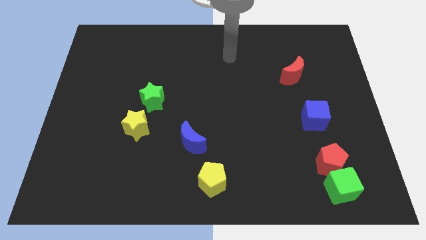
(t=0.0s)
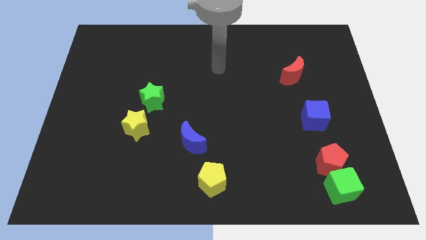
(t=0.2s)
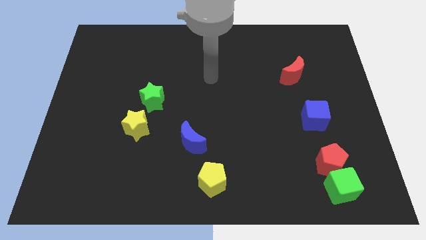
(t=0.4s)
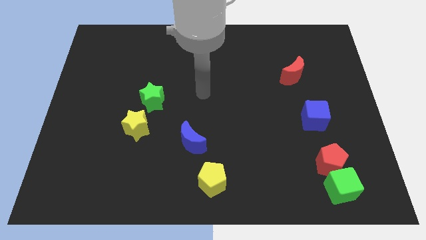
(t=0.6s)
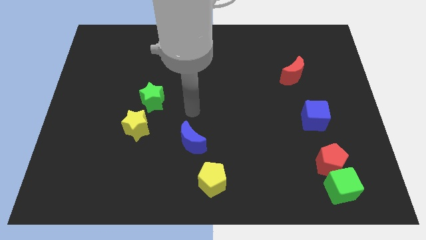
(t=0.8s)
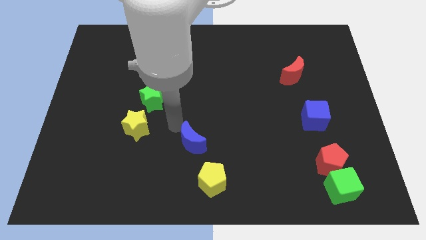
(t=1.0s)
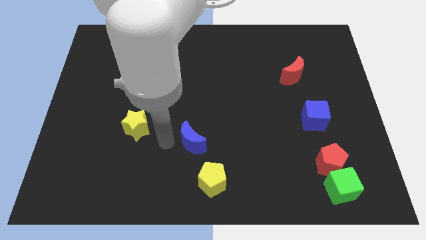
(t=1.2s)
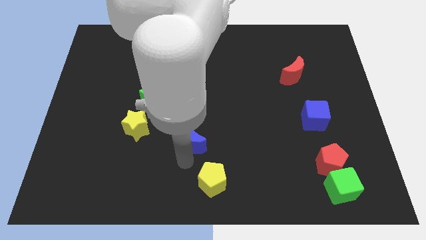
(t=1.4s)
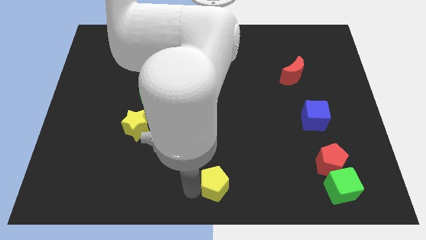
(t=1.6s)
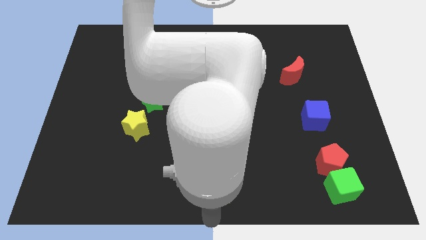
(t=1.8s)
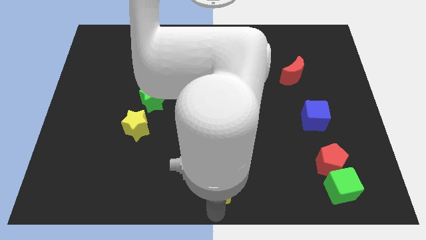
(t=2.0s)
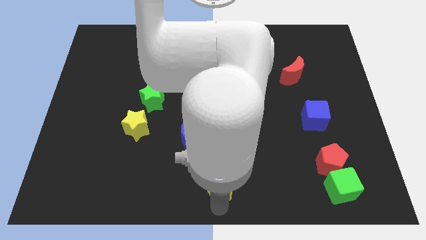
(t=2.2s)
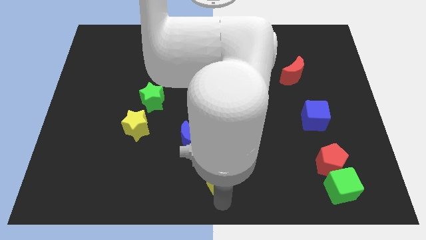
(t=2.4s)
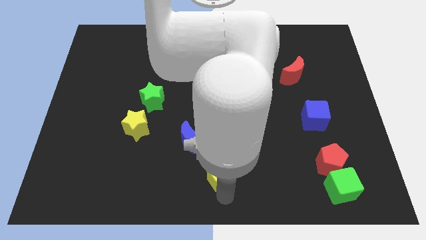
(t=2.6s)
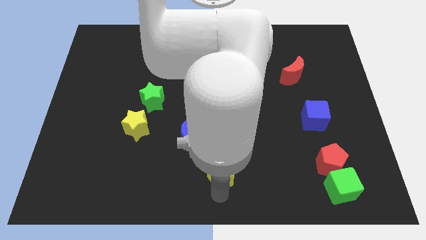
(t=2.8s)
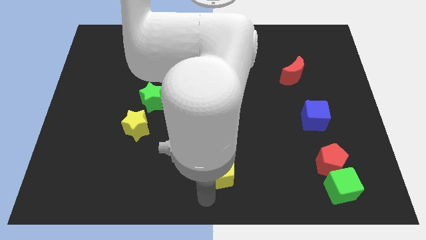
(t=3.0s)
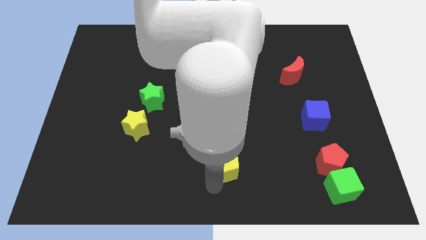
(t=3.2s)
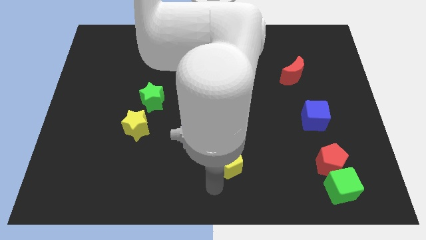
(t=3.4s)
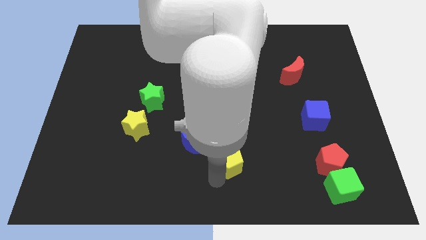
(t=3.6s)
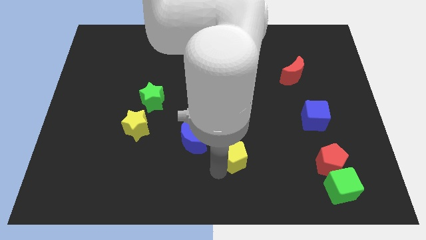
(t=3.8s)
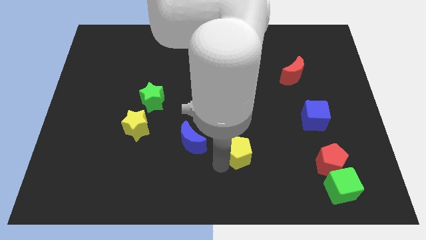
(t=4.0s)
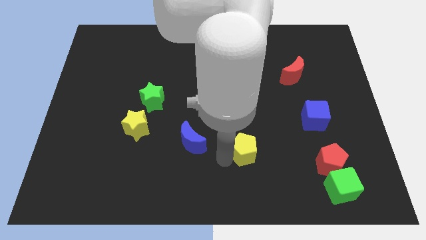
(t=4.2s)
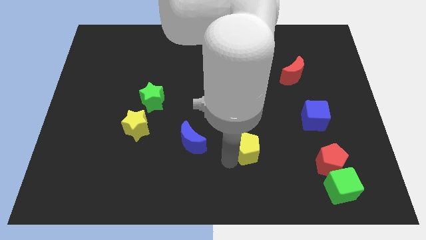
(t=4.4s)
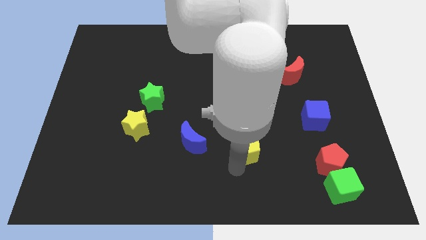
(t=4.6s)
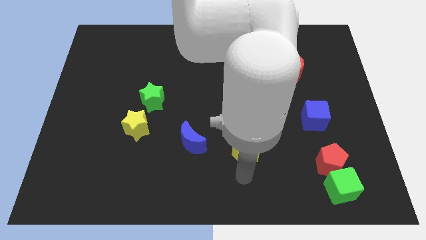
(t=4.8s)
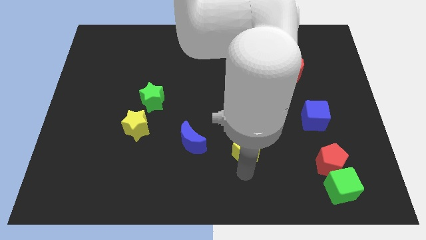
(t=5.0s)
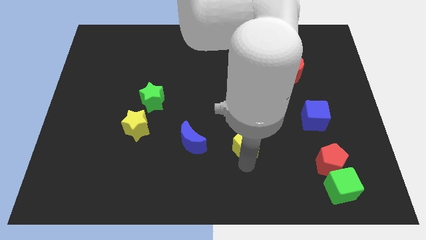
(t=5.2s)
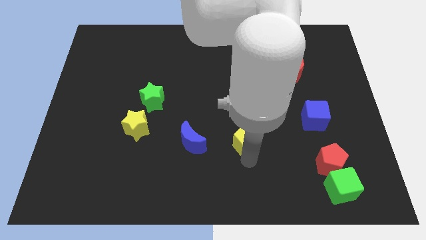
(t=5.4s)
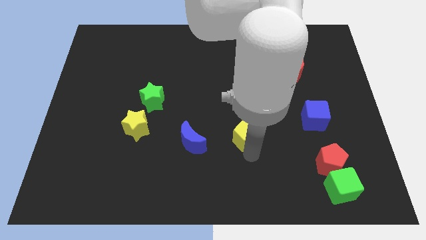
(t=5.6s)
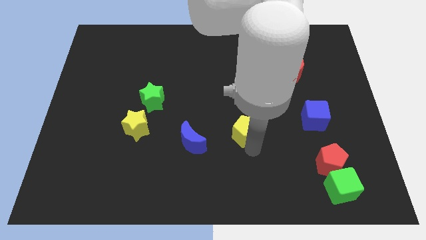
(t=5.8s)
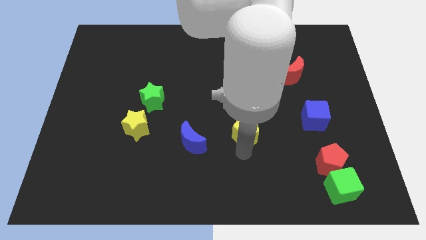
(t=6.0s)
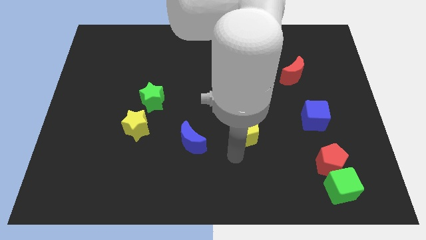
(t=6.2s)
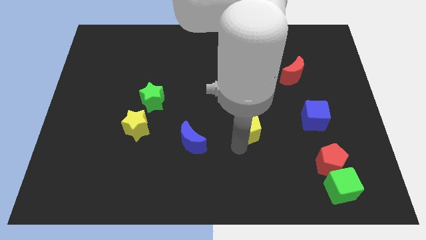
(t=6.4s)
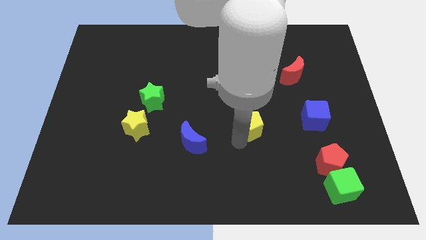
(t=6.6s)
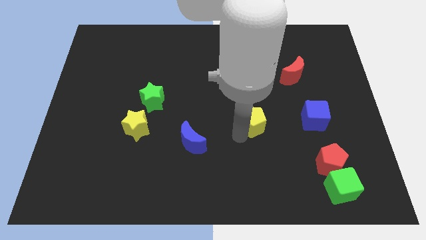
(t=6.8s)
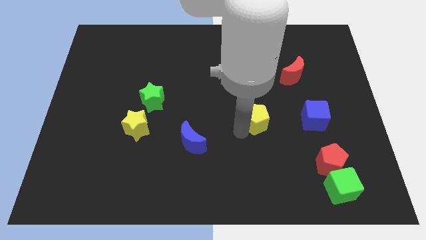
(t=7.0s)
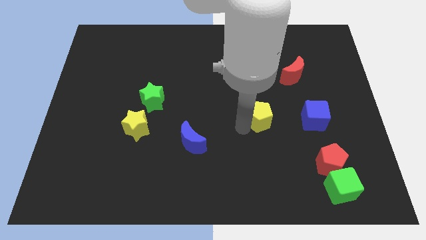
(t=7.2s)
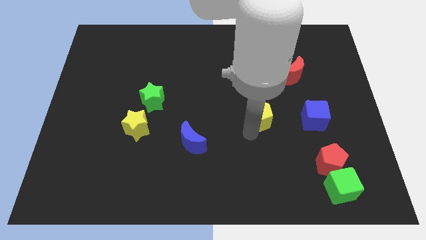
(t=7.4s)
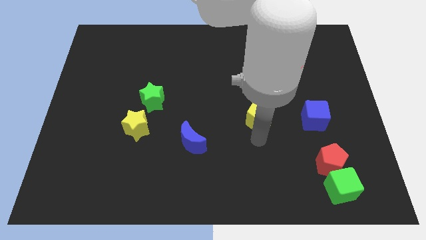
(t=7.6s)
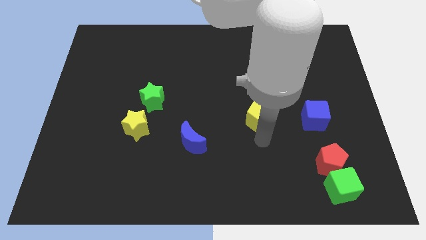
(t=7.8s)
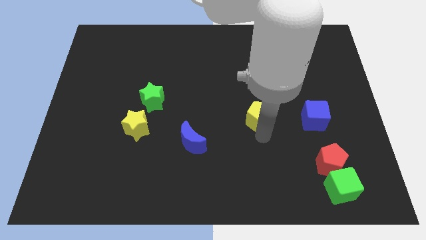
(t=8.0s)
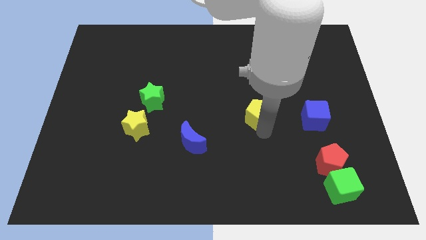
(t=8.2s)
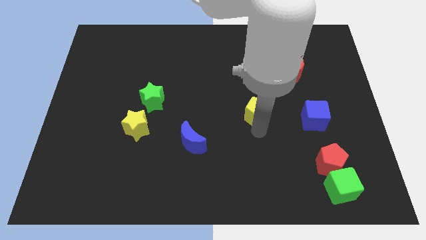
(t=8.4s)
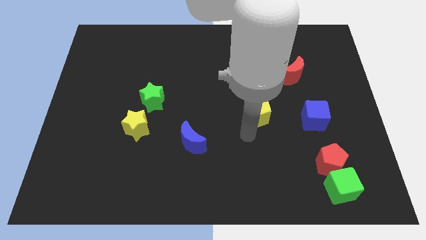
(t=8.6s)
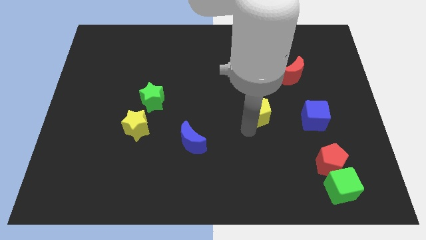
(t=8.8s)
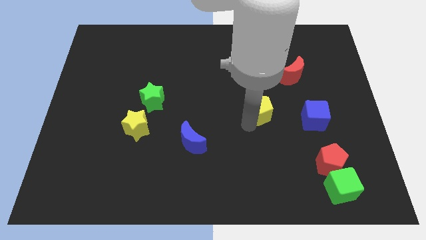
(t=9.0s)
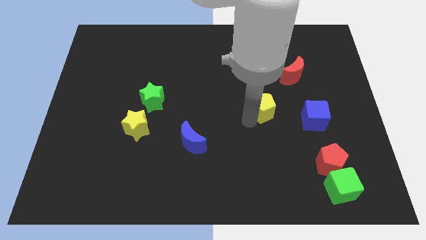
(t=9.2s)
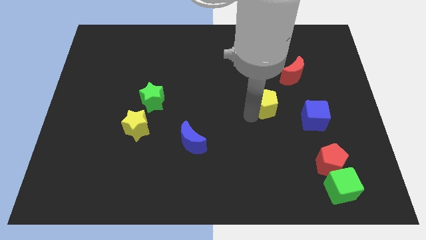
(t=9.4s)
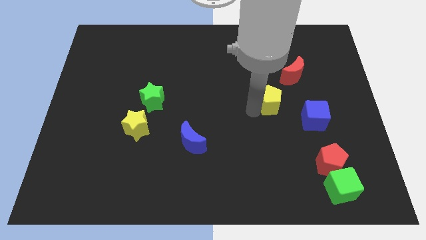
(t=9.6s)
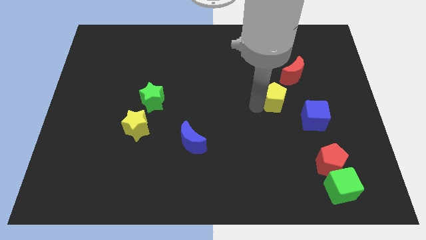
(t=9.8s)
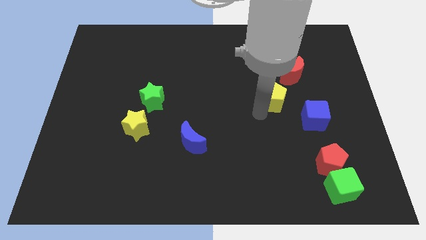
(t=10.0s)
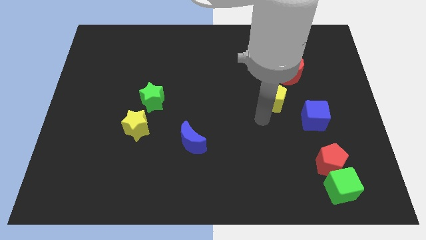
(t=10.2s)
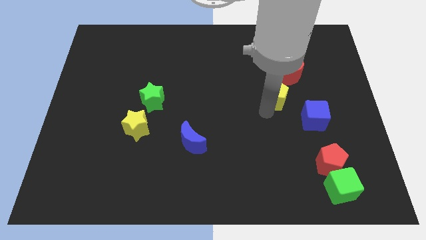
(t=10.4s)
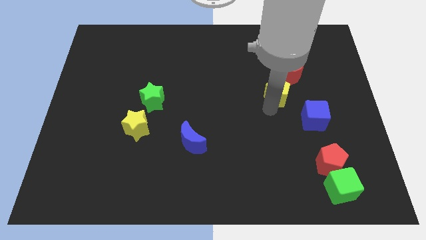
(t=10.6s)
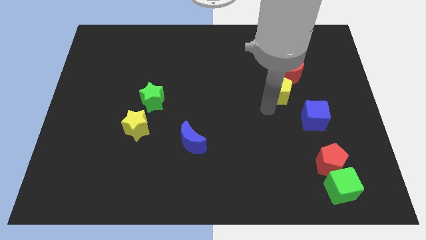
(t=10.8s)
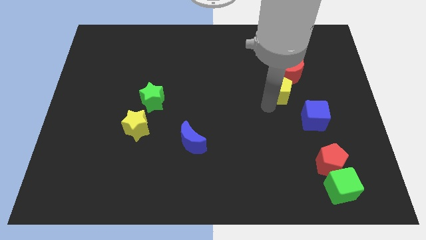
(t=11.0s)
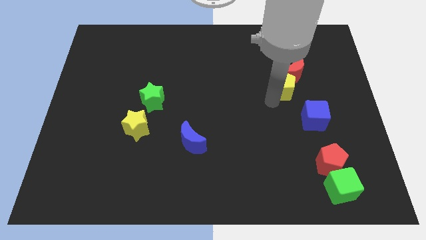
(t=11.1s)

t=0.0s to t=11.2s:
slide the yellow pentagon next to the red moon

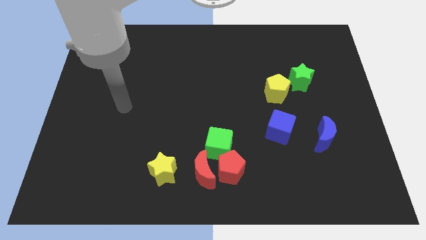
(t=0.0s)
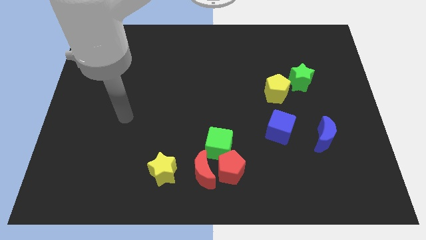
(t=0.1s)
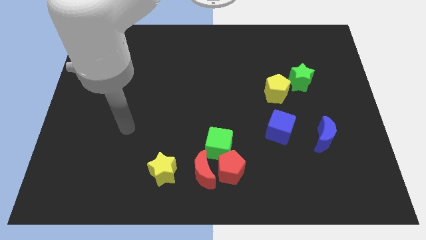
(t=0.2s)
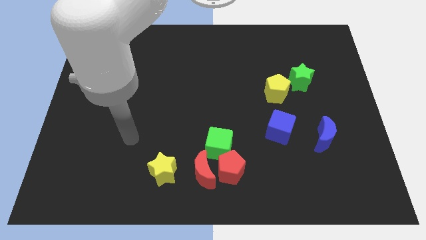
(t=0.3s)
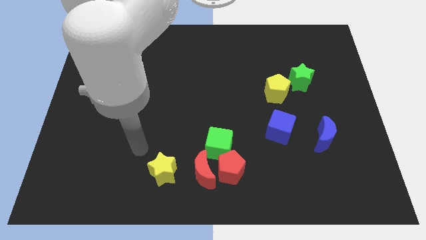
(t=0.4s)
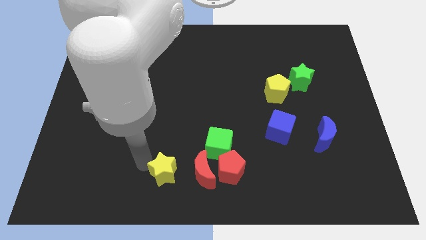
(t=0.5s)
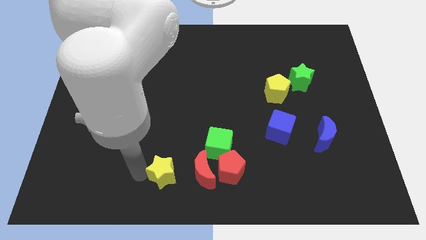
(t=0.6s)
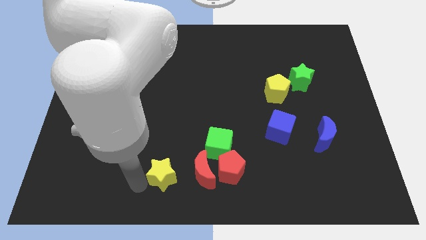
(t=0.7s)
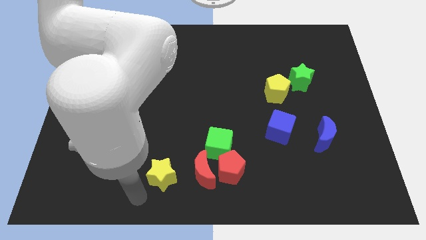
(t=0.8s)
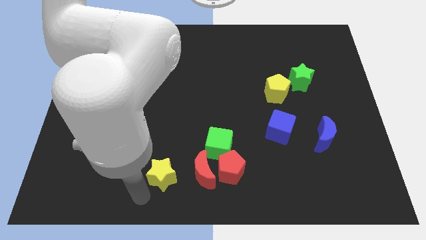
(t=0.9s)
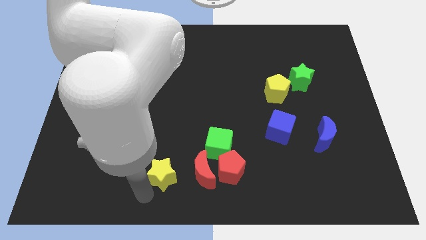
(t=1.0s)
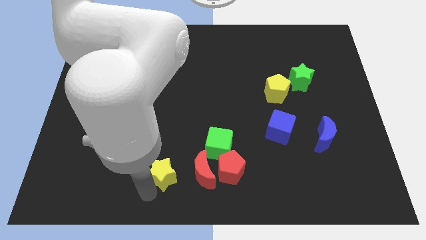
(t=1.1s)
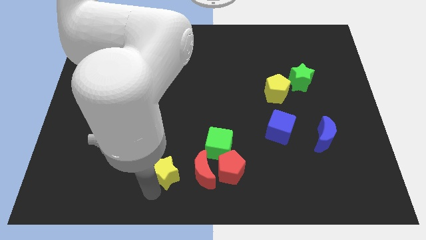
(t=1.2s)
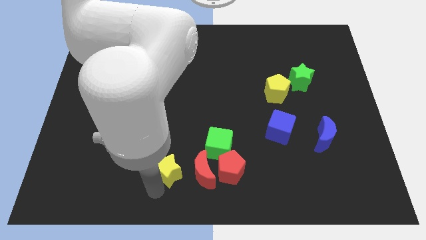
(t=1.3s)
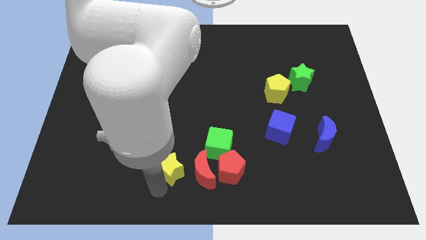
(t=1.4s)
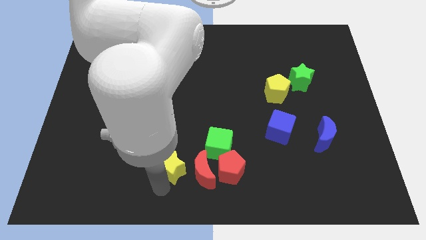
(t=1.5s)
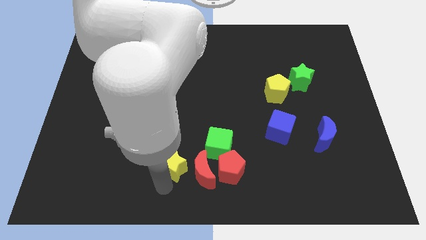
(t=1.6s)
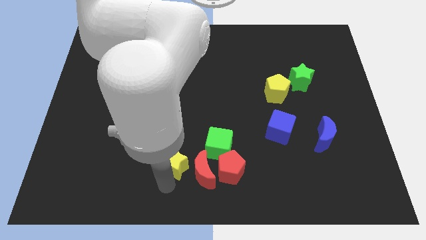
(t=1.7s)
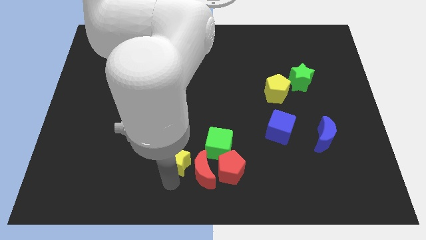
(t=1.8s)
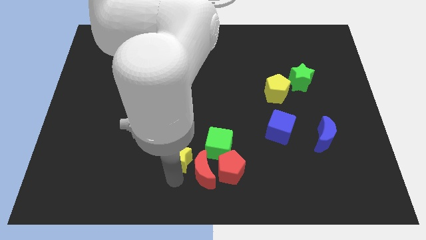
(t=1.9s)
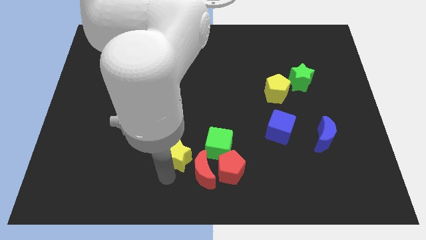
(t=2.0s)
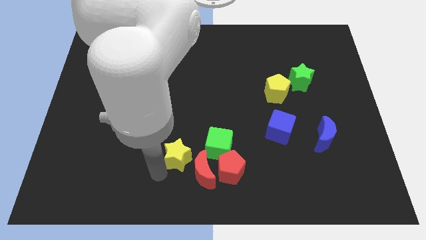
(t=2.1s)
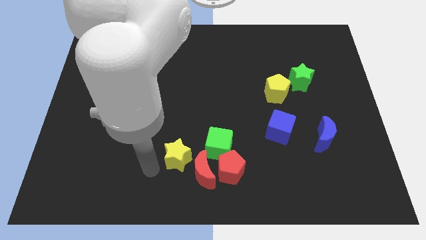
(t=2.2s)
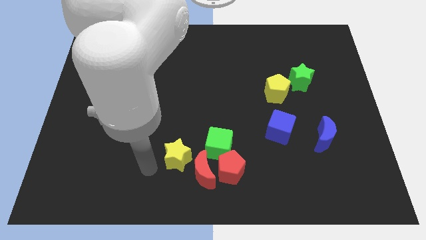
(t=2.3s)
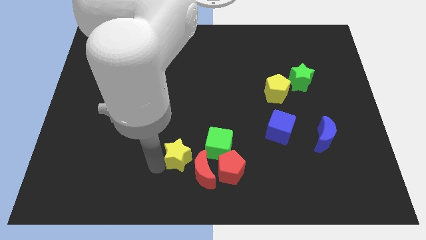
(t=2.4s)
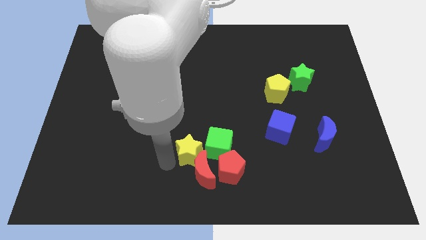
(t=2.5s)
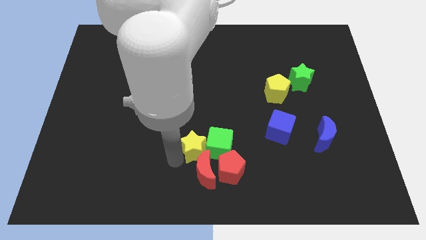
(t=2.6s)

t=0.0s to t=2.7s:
push the yellow star close to the green cube
